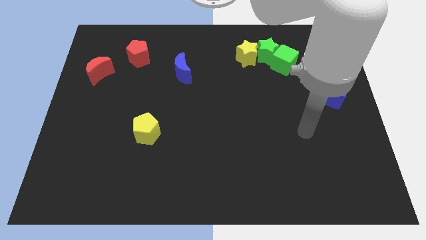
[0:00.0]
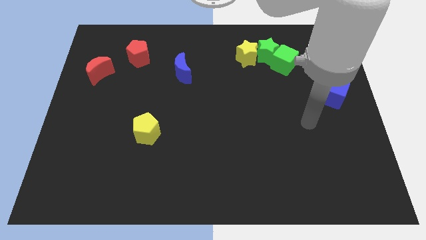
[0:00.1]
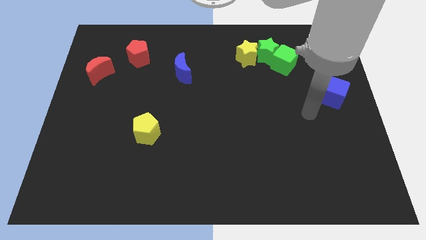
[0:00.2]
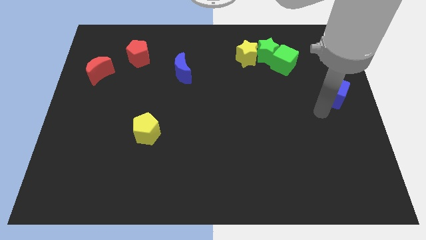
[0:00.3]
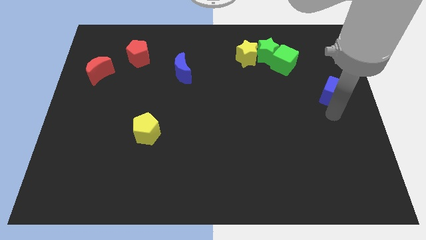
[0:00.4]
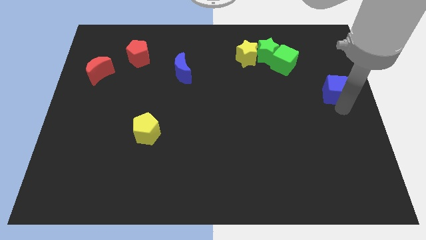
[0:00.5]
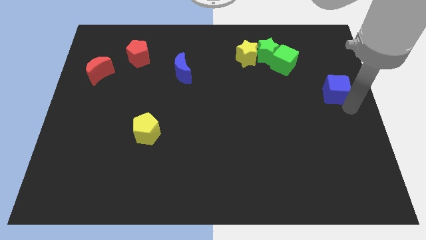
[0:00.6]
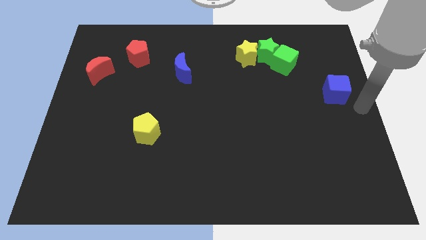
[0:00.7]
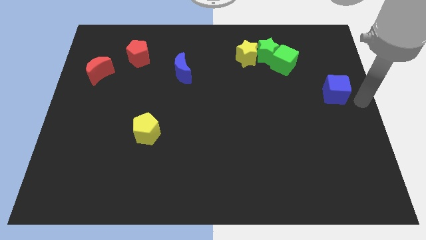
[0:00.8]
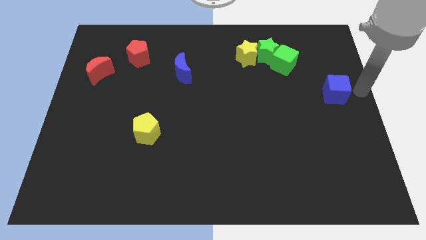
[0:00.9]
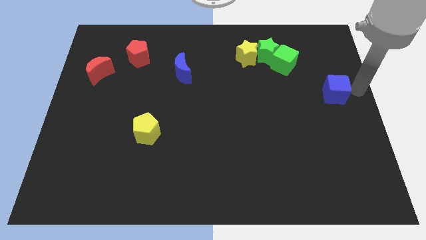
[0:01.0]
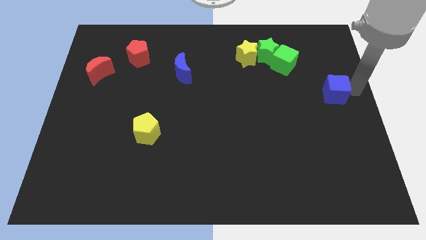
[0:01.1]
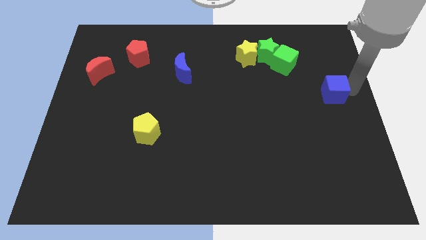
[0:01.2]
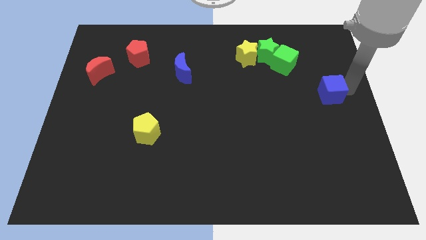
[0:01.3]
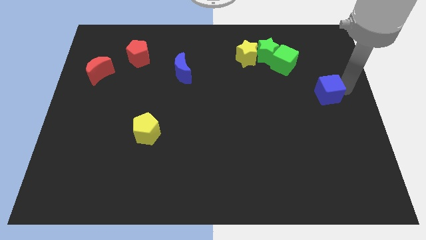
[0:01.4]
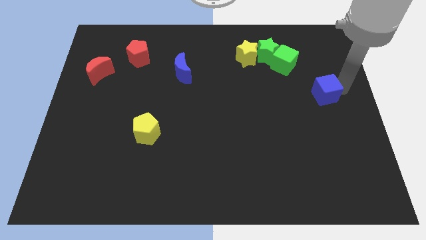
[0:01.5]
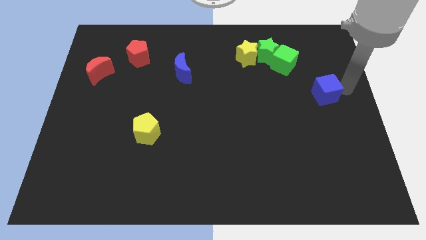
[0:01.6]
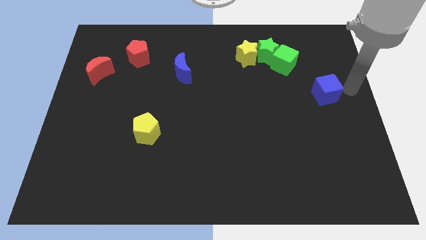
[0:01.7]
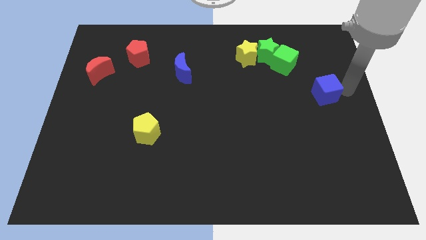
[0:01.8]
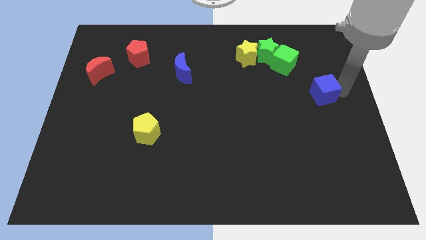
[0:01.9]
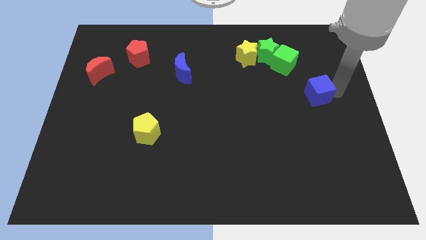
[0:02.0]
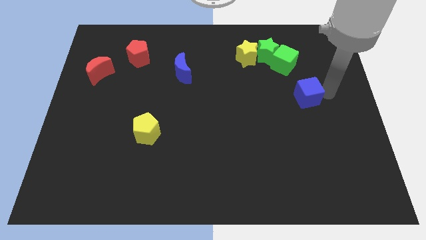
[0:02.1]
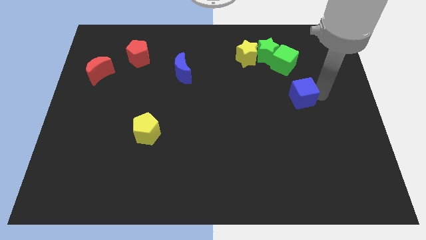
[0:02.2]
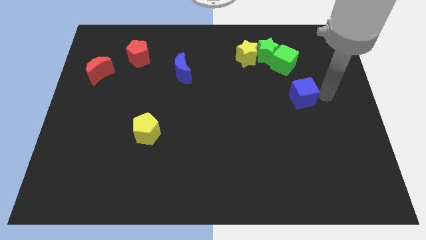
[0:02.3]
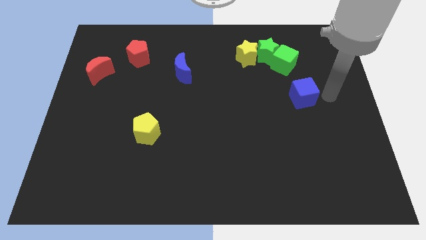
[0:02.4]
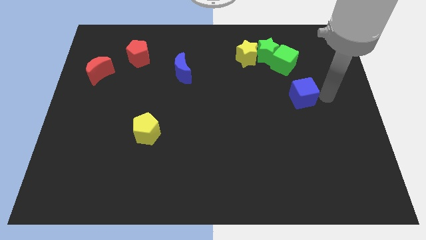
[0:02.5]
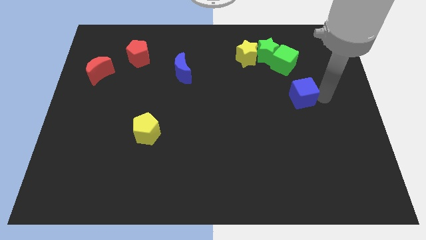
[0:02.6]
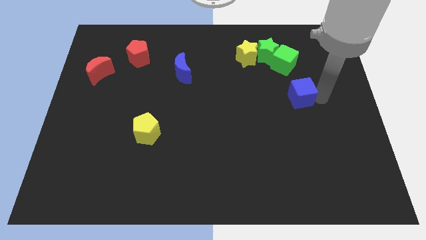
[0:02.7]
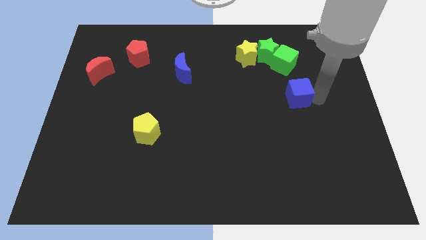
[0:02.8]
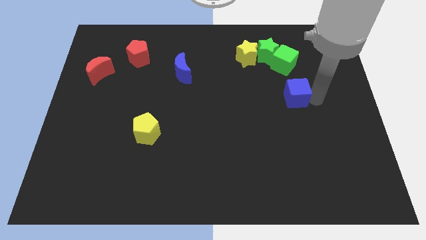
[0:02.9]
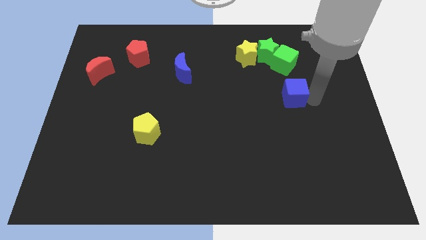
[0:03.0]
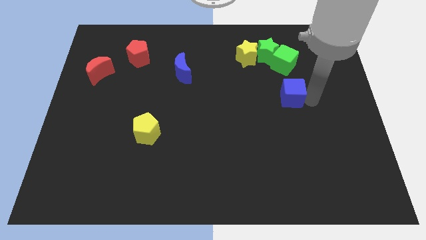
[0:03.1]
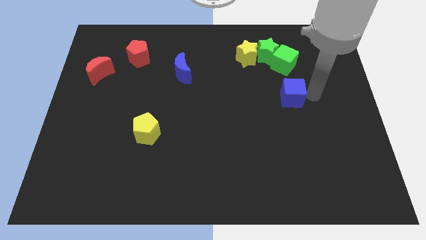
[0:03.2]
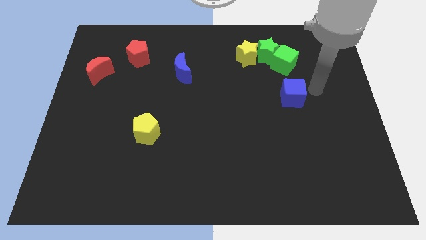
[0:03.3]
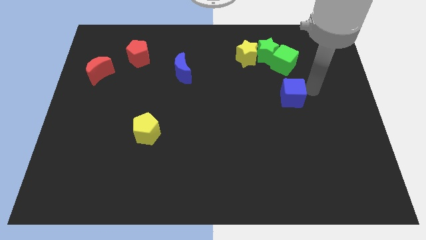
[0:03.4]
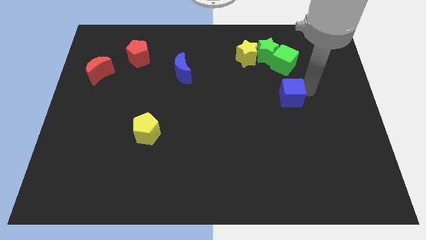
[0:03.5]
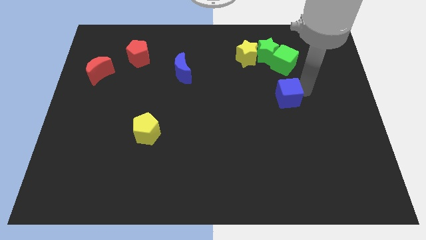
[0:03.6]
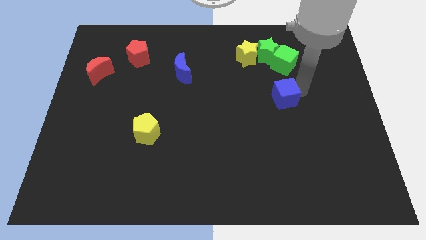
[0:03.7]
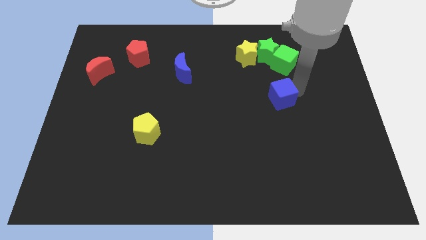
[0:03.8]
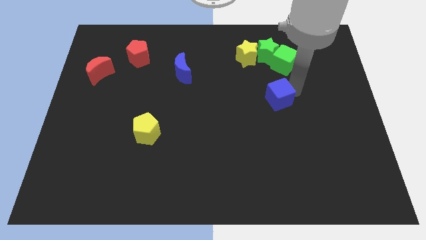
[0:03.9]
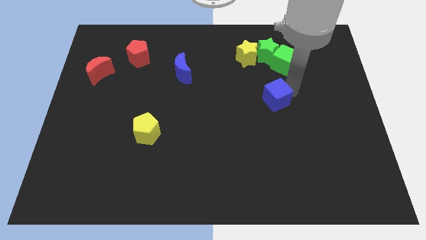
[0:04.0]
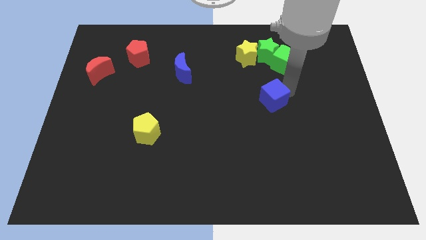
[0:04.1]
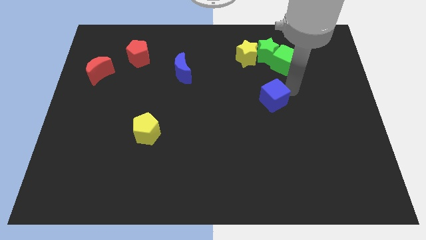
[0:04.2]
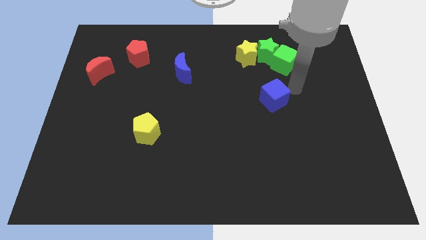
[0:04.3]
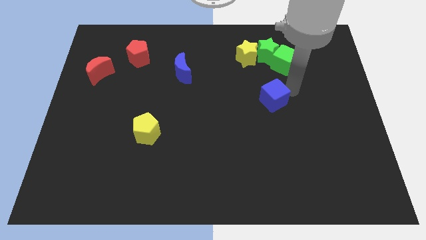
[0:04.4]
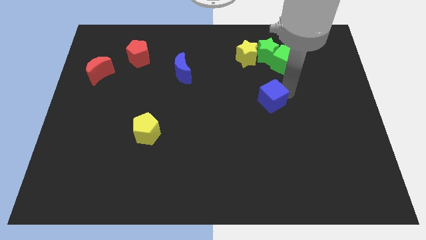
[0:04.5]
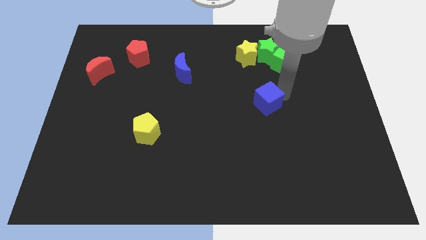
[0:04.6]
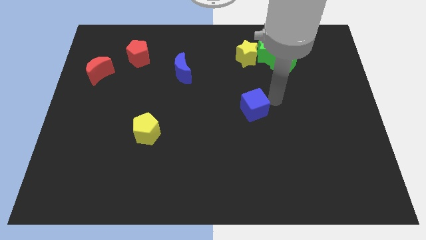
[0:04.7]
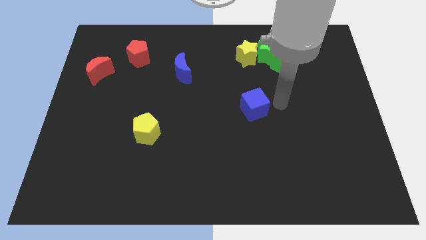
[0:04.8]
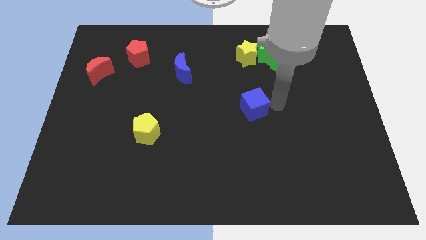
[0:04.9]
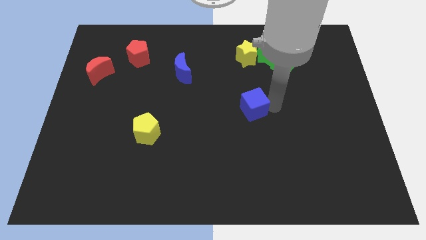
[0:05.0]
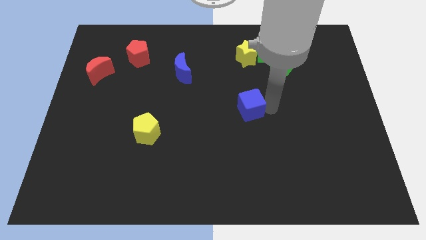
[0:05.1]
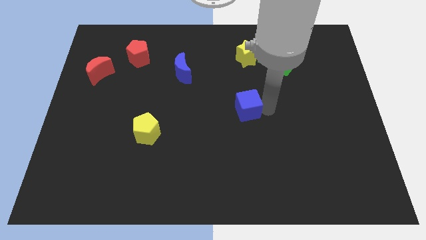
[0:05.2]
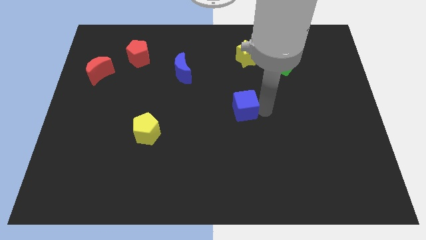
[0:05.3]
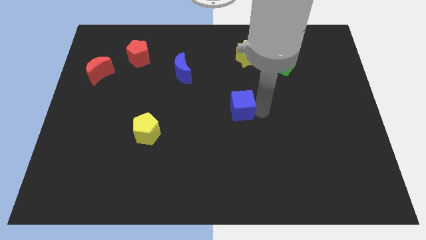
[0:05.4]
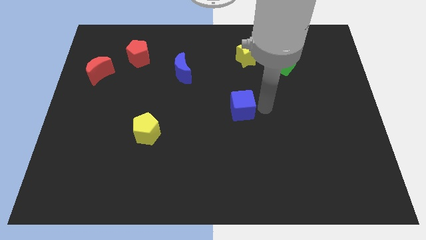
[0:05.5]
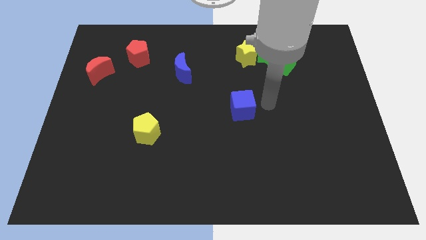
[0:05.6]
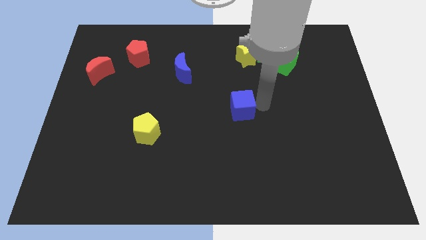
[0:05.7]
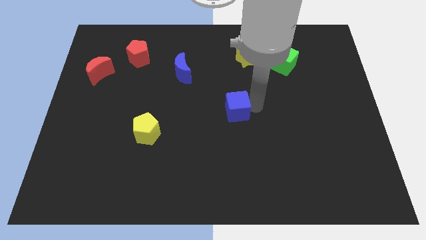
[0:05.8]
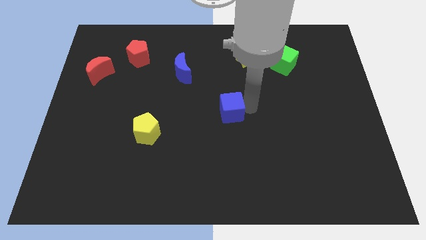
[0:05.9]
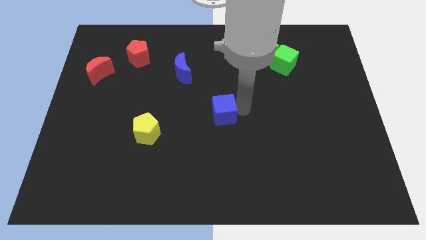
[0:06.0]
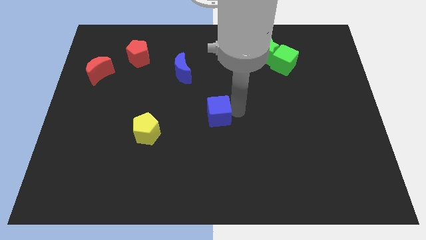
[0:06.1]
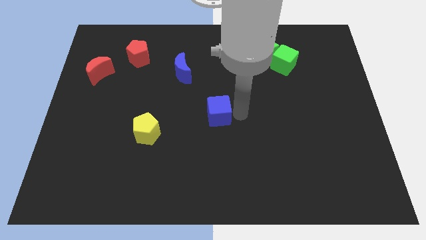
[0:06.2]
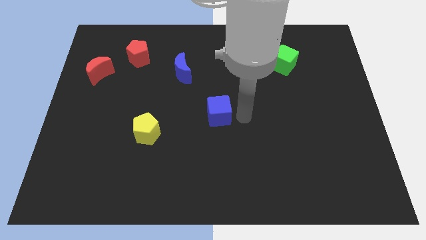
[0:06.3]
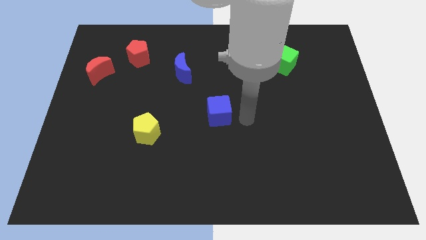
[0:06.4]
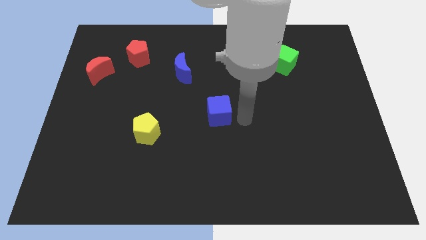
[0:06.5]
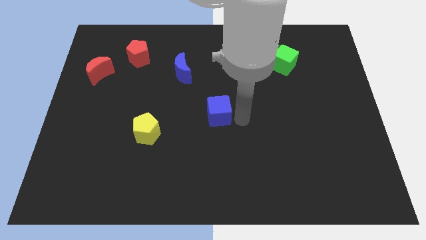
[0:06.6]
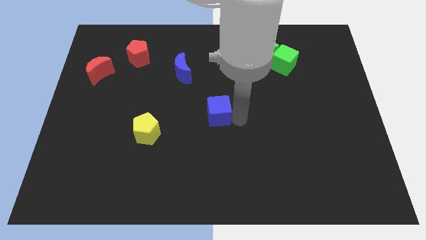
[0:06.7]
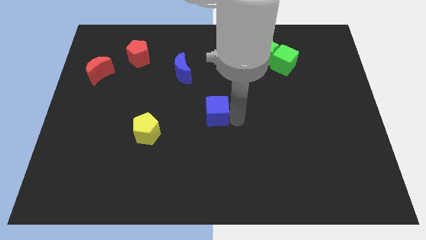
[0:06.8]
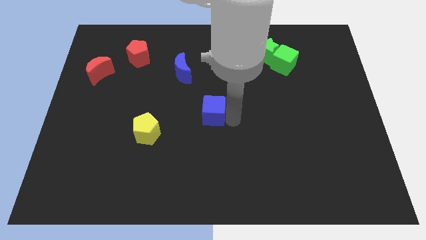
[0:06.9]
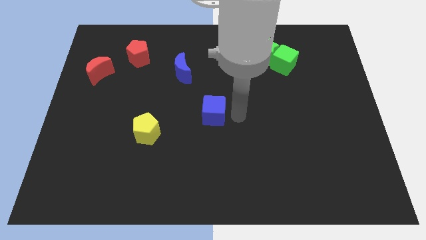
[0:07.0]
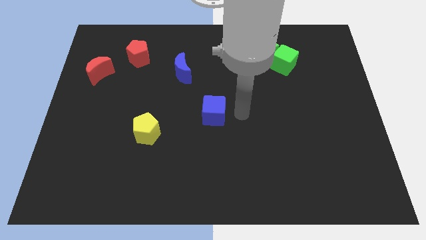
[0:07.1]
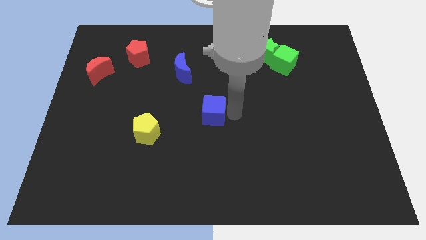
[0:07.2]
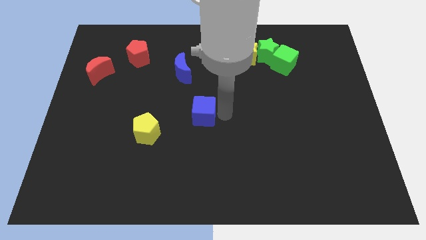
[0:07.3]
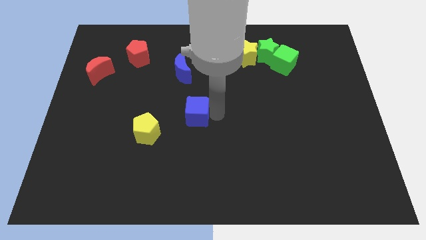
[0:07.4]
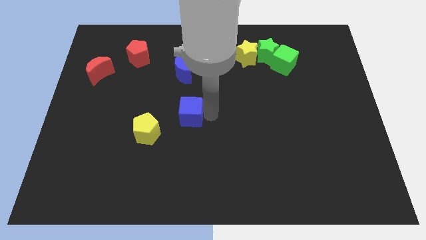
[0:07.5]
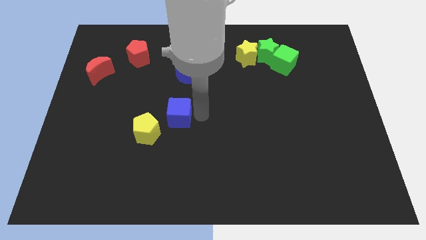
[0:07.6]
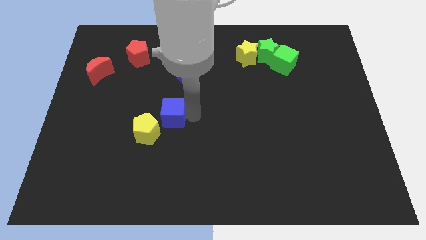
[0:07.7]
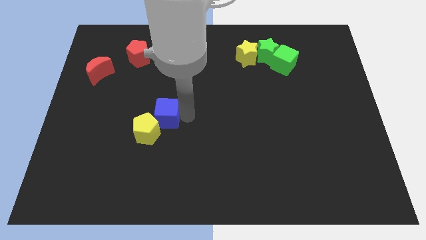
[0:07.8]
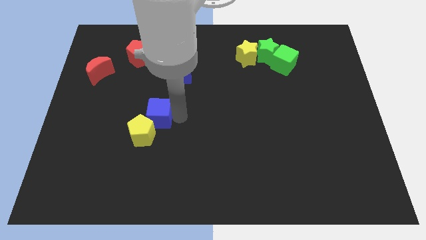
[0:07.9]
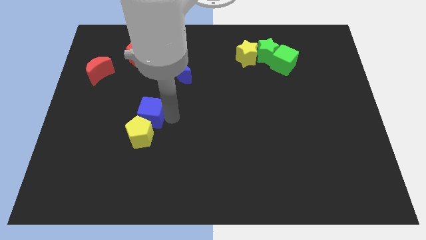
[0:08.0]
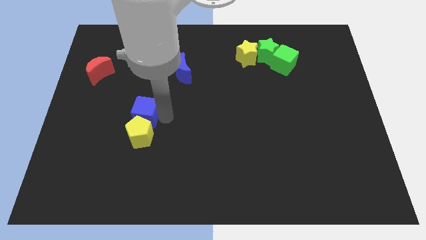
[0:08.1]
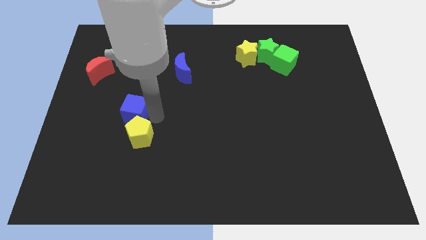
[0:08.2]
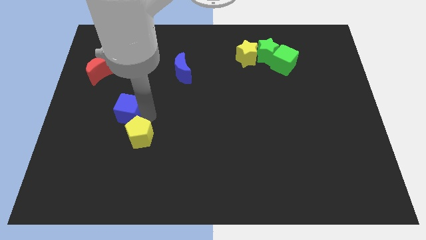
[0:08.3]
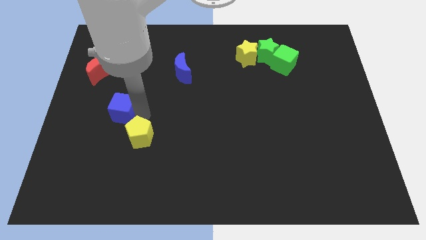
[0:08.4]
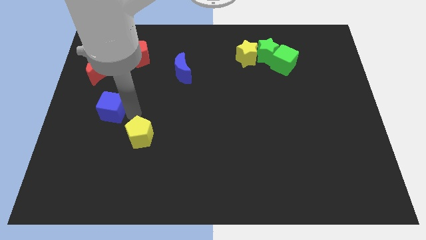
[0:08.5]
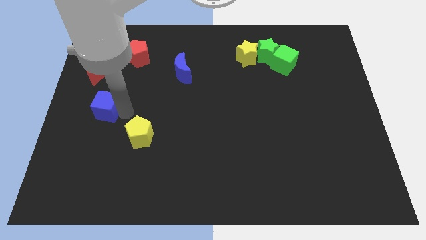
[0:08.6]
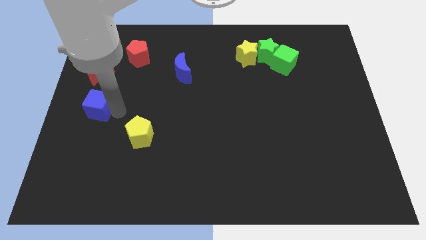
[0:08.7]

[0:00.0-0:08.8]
put the blue cube to the left side of the board
